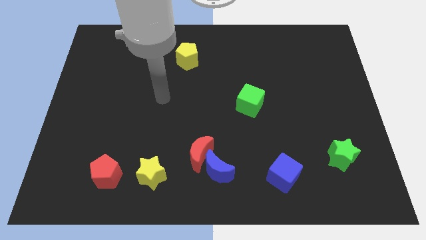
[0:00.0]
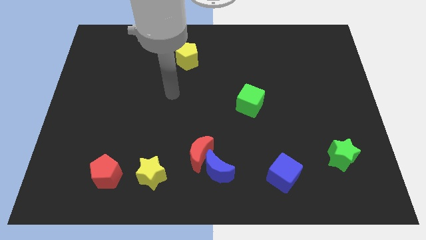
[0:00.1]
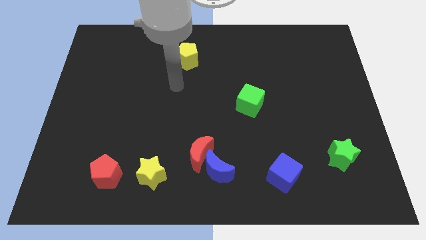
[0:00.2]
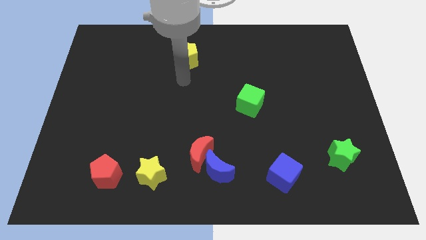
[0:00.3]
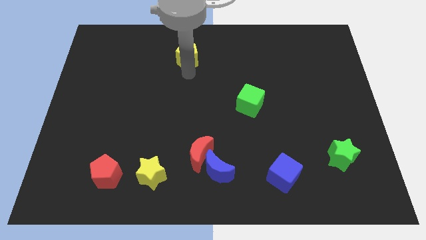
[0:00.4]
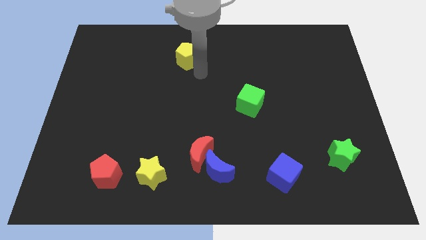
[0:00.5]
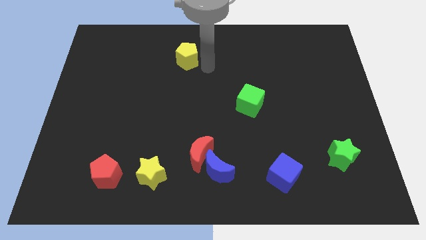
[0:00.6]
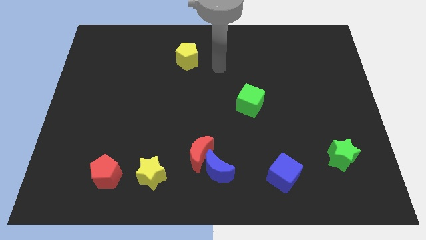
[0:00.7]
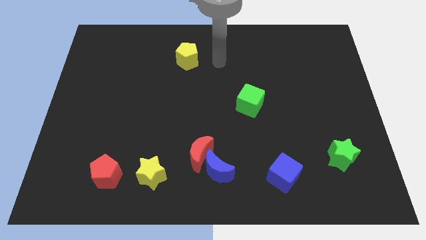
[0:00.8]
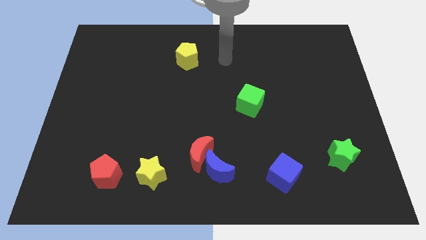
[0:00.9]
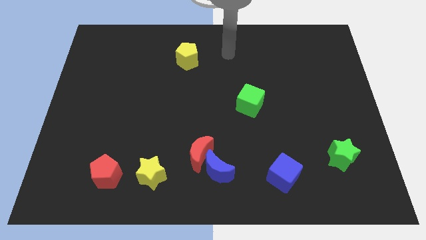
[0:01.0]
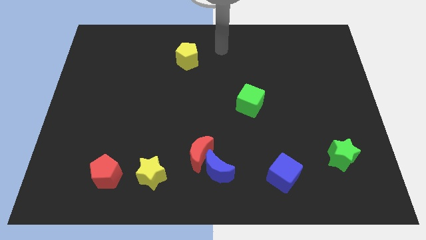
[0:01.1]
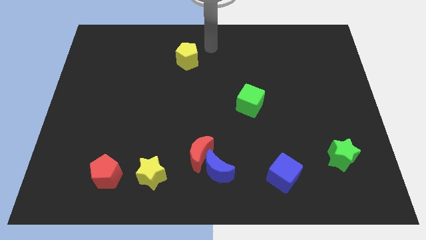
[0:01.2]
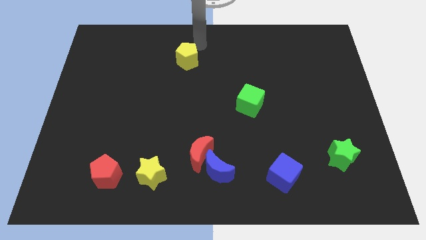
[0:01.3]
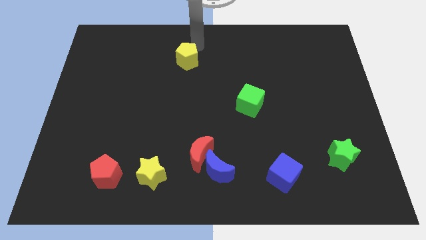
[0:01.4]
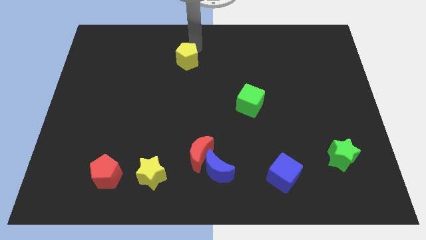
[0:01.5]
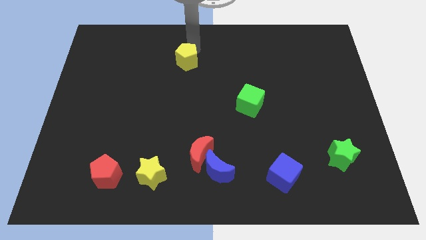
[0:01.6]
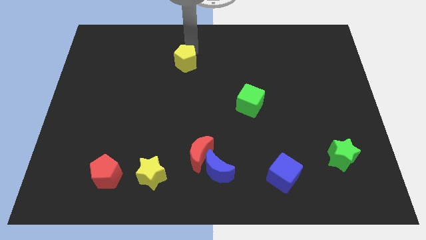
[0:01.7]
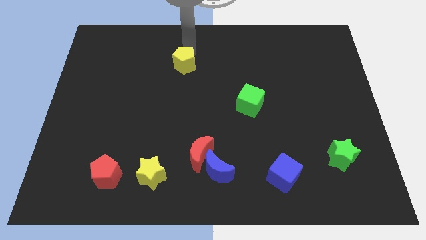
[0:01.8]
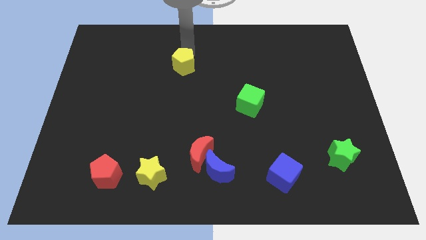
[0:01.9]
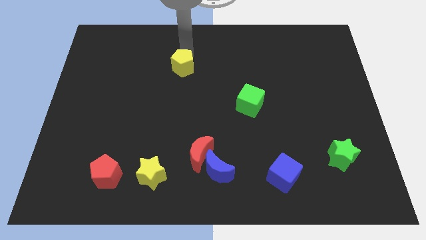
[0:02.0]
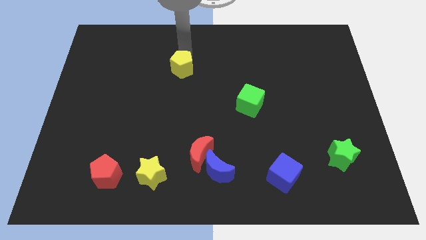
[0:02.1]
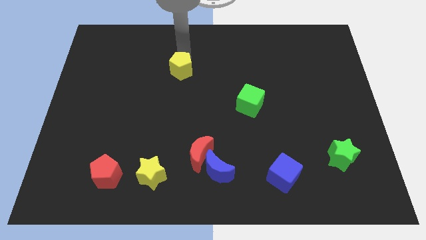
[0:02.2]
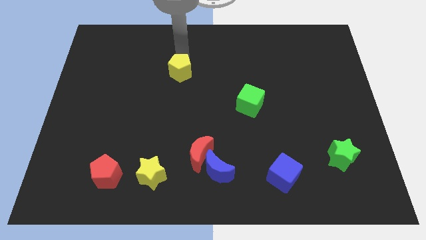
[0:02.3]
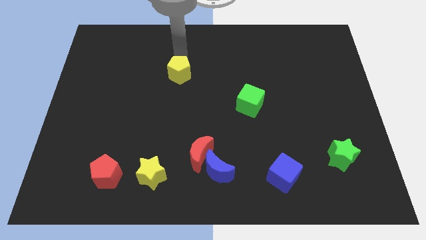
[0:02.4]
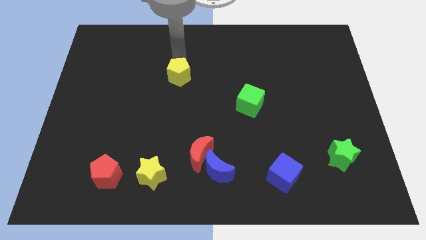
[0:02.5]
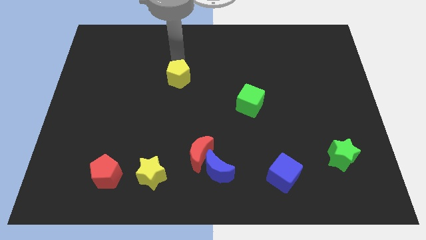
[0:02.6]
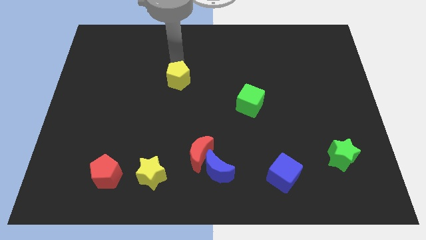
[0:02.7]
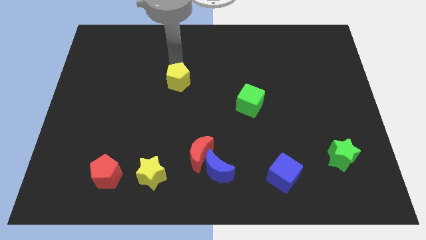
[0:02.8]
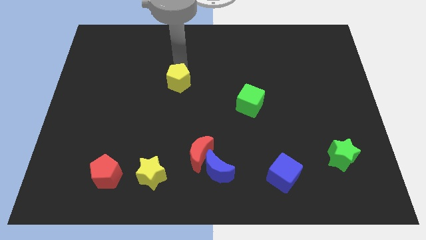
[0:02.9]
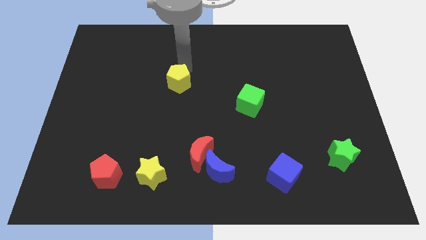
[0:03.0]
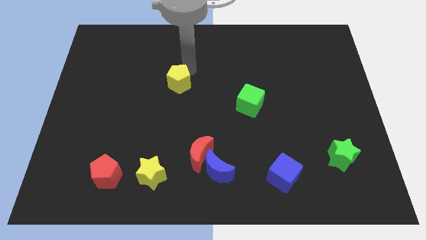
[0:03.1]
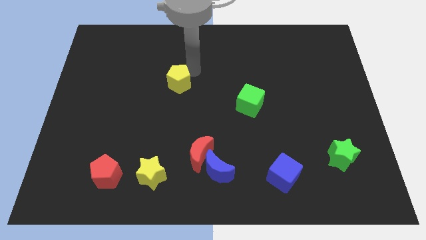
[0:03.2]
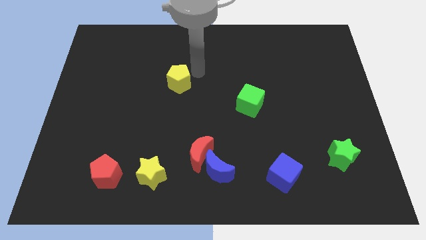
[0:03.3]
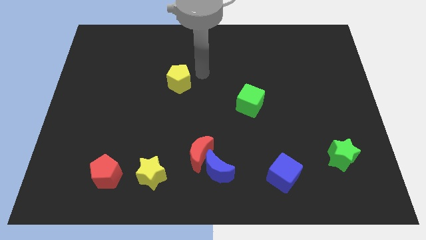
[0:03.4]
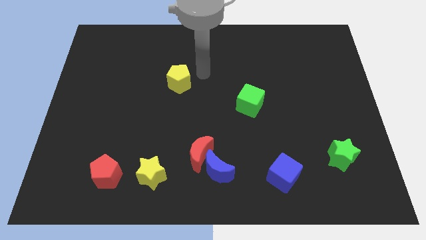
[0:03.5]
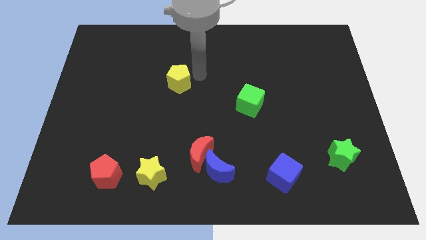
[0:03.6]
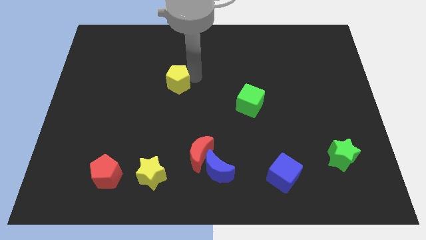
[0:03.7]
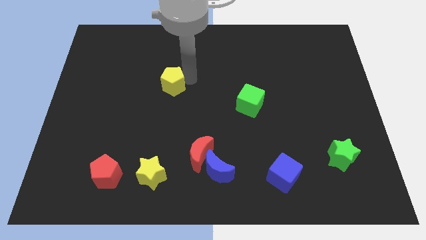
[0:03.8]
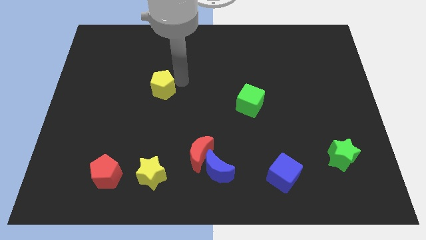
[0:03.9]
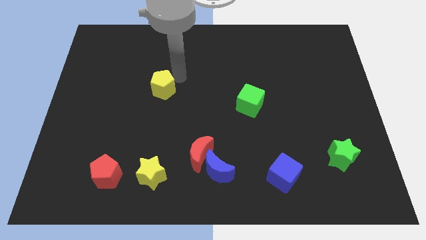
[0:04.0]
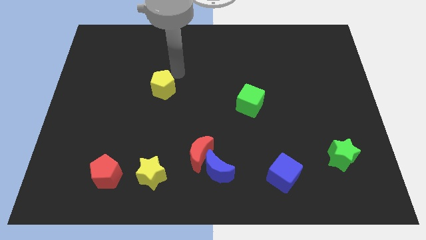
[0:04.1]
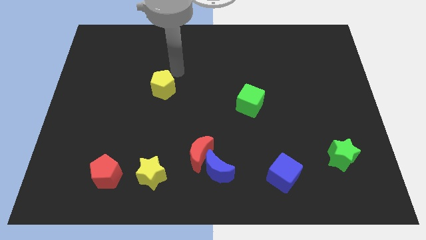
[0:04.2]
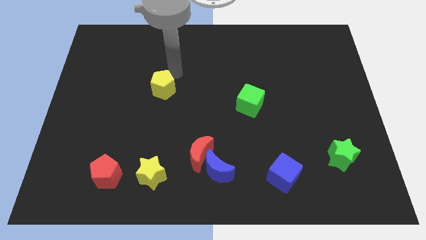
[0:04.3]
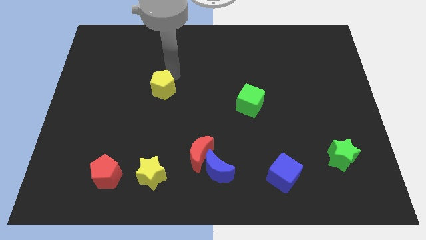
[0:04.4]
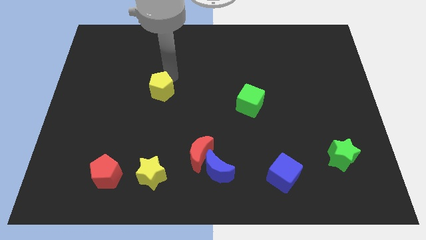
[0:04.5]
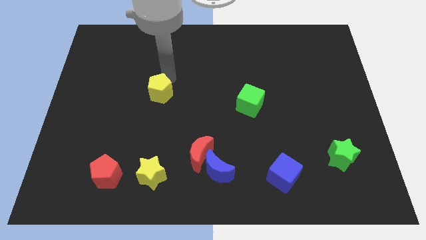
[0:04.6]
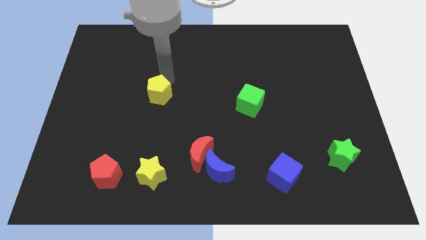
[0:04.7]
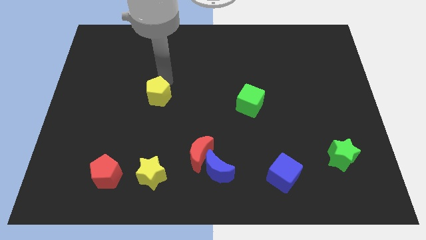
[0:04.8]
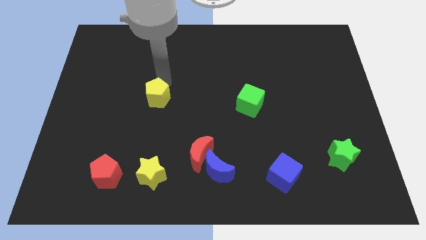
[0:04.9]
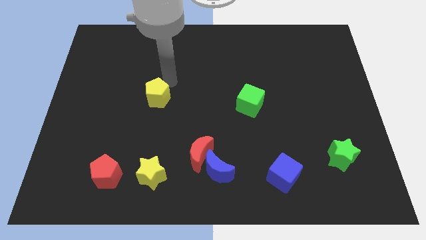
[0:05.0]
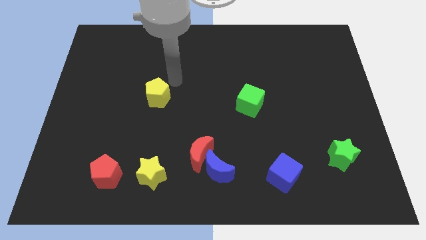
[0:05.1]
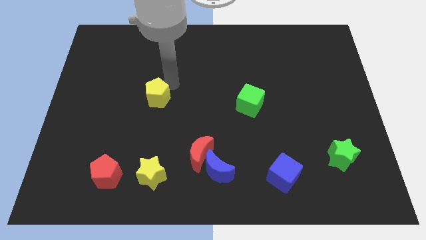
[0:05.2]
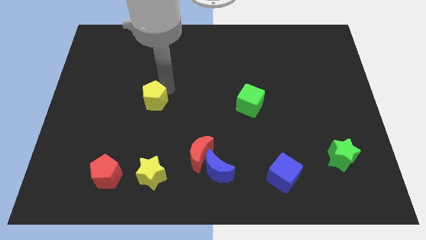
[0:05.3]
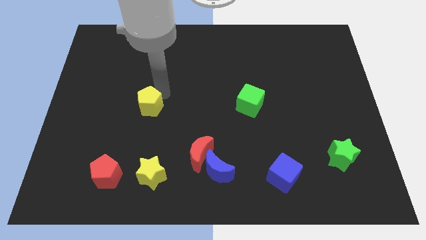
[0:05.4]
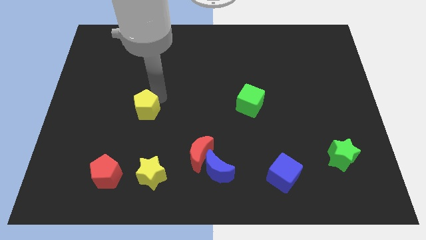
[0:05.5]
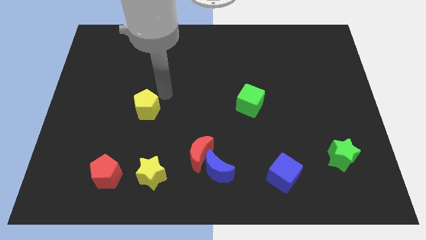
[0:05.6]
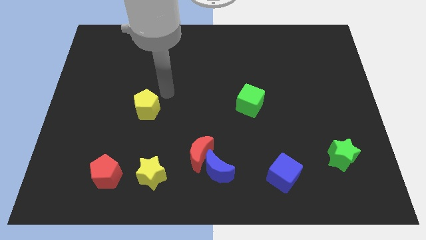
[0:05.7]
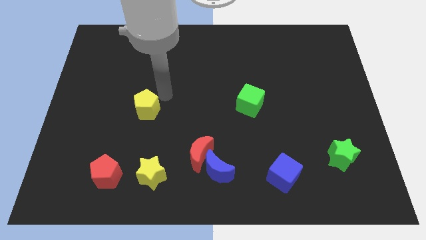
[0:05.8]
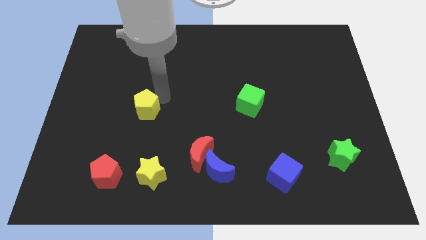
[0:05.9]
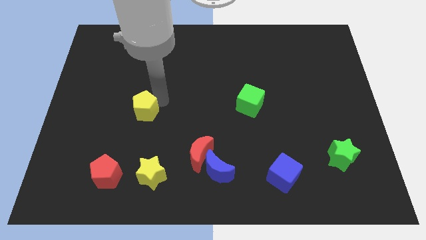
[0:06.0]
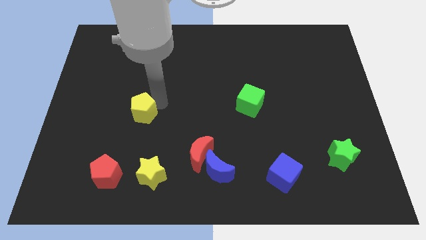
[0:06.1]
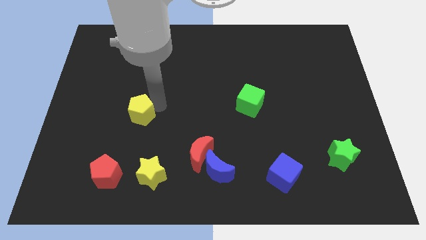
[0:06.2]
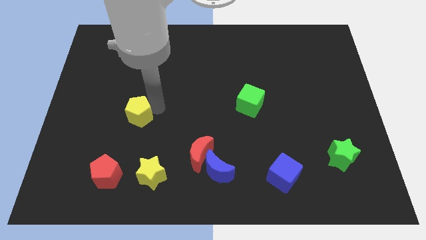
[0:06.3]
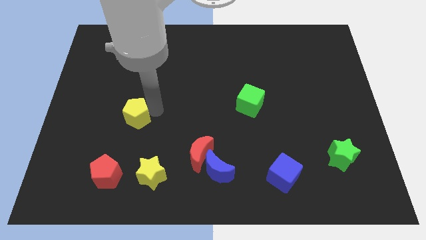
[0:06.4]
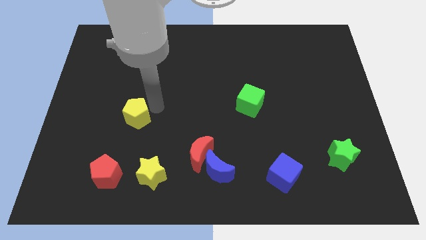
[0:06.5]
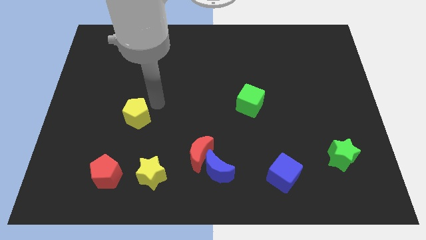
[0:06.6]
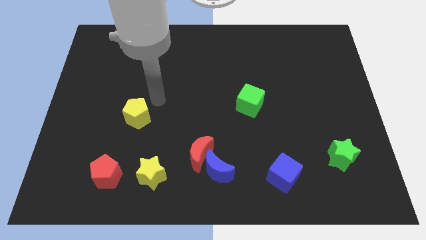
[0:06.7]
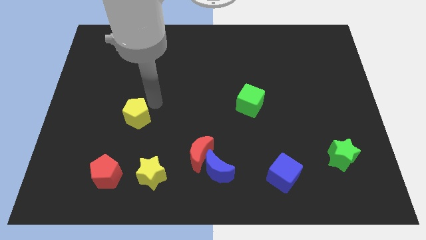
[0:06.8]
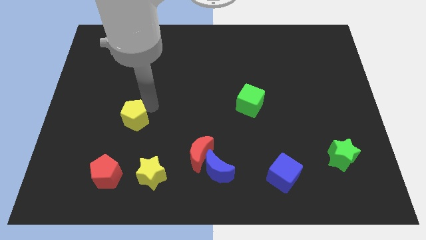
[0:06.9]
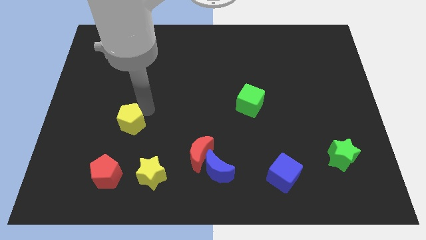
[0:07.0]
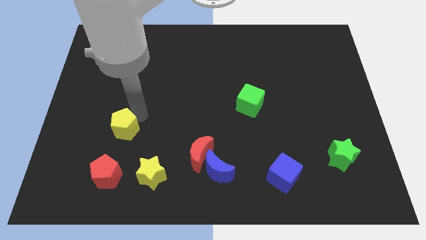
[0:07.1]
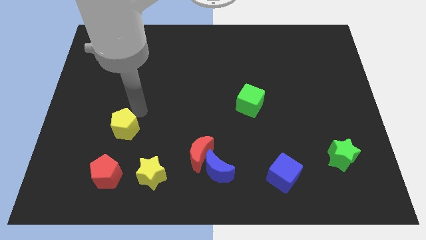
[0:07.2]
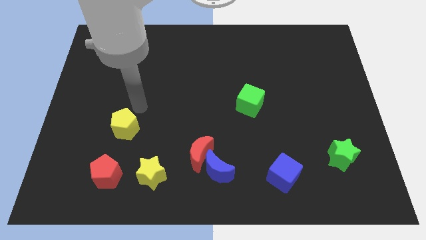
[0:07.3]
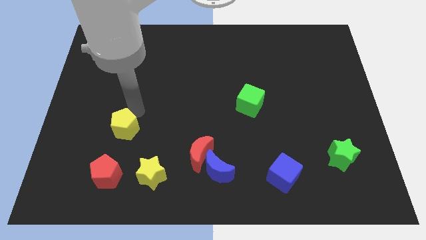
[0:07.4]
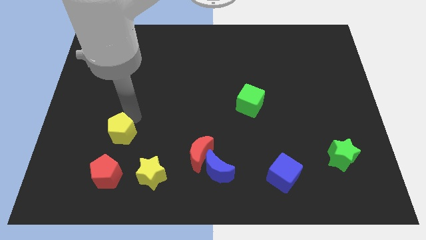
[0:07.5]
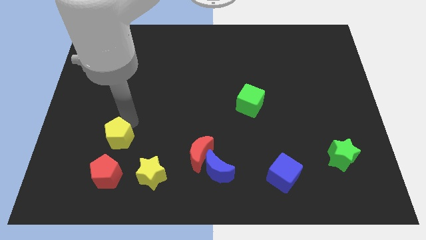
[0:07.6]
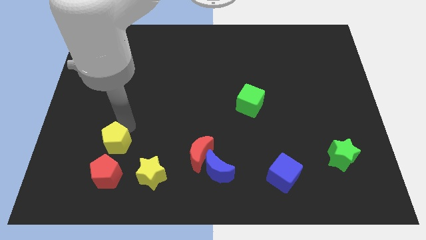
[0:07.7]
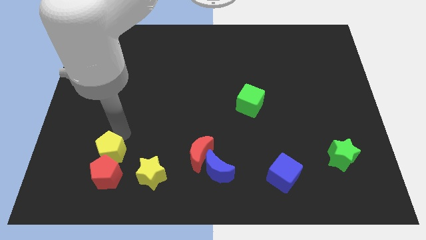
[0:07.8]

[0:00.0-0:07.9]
slide the yellow pentagon next to the red pentagon
